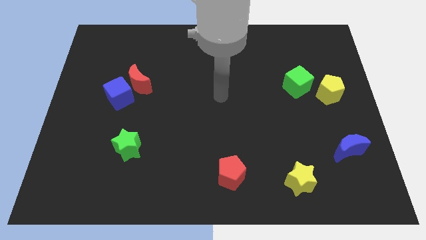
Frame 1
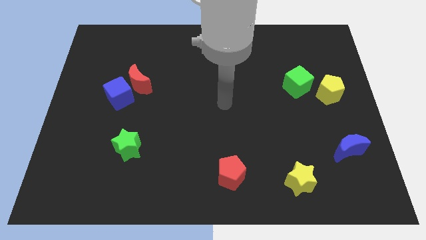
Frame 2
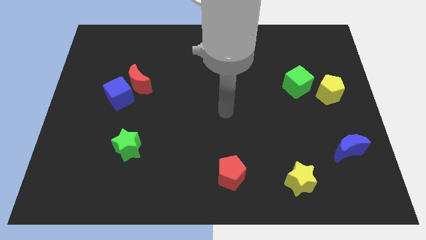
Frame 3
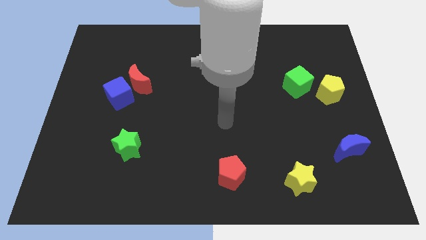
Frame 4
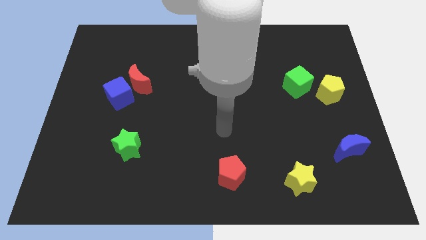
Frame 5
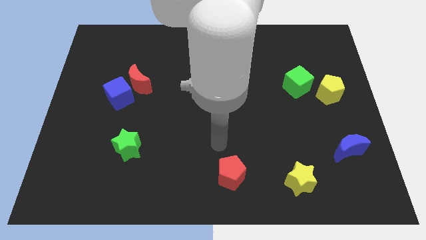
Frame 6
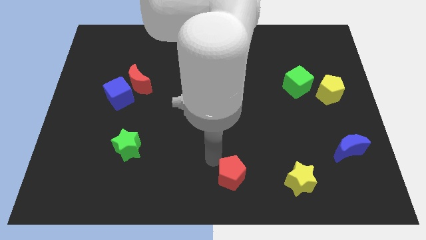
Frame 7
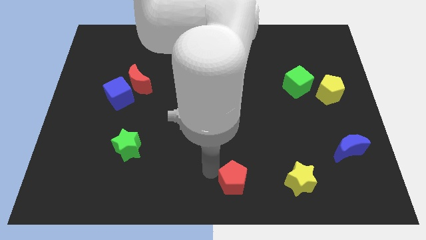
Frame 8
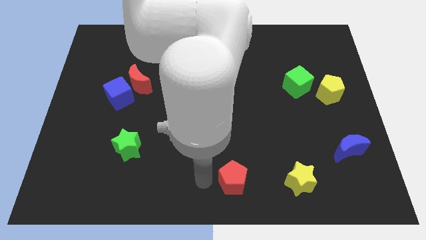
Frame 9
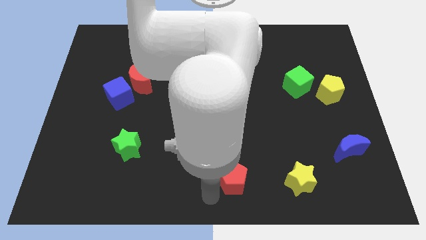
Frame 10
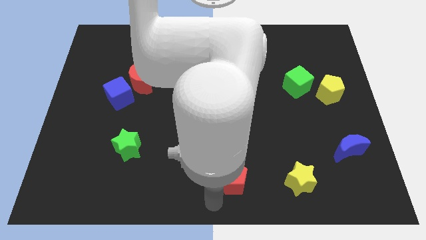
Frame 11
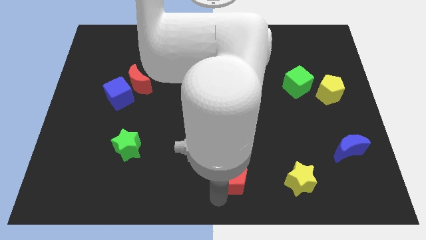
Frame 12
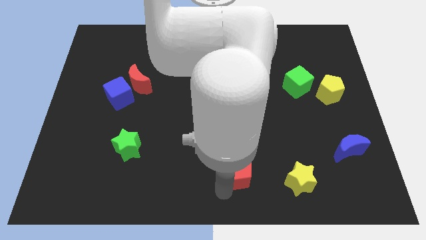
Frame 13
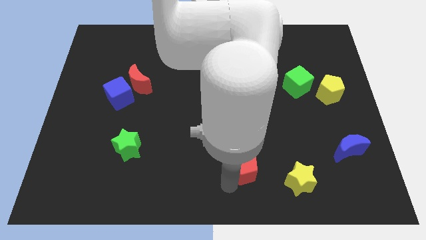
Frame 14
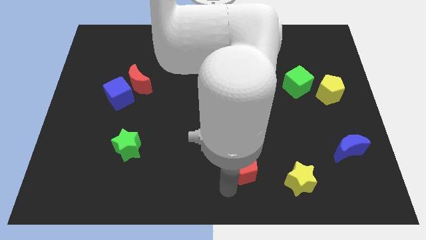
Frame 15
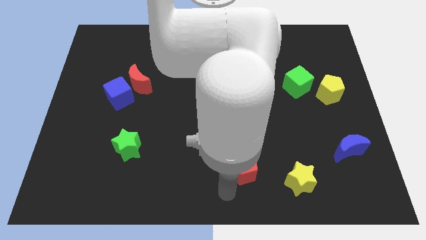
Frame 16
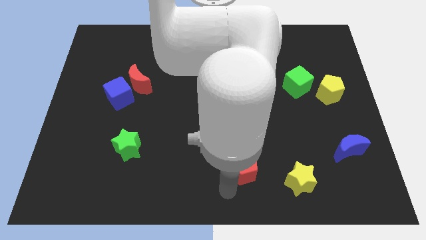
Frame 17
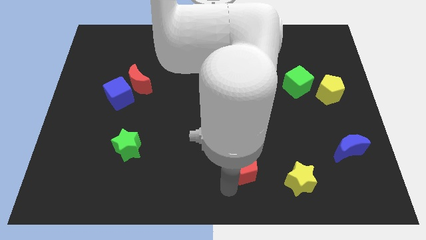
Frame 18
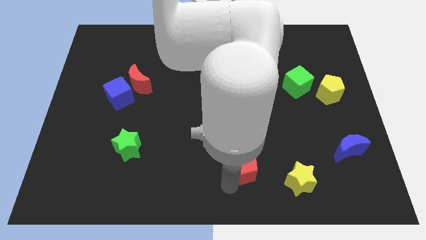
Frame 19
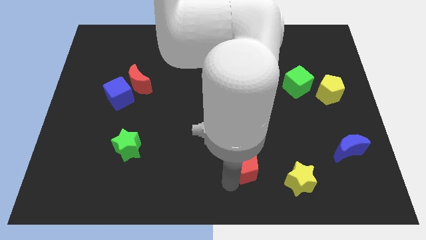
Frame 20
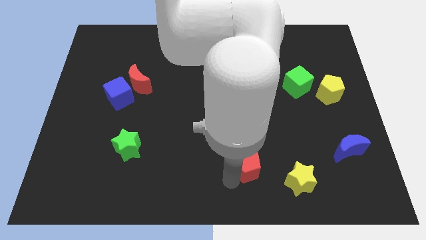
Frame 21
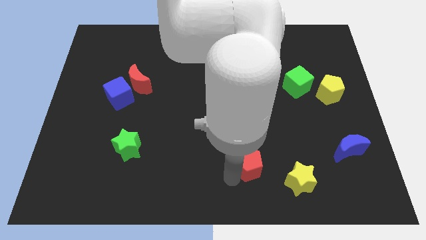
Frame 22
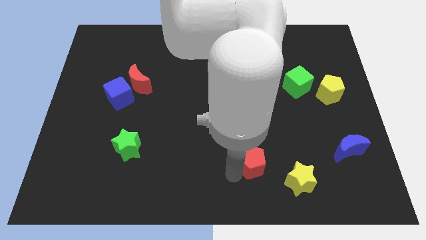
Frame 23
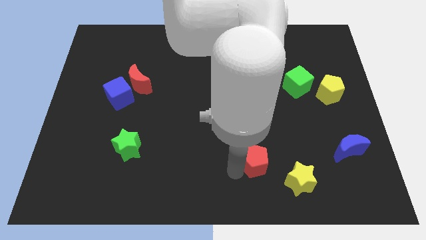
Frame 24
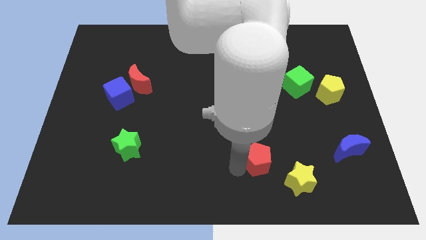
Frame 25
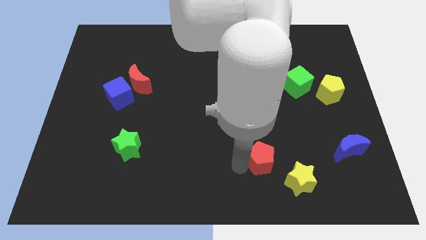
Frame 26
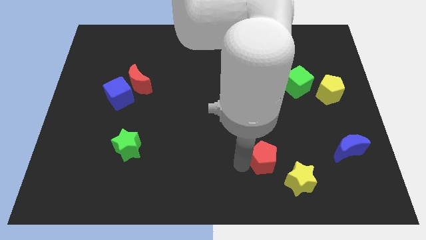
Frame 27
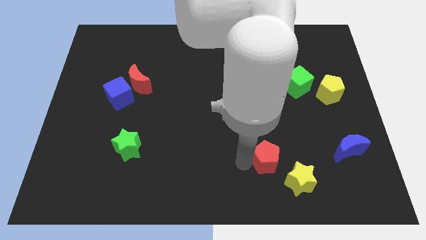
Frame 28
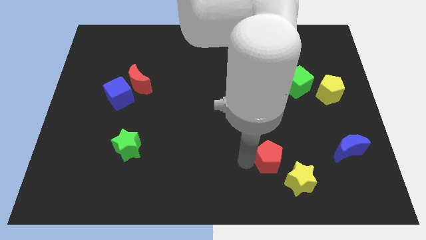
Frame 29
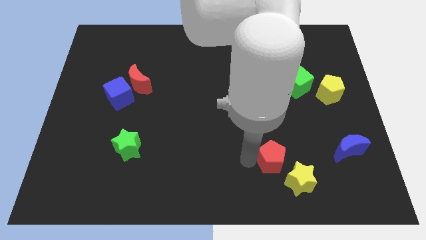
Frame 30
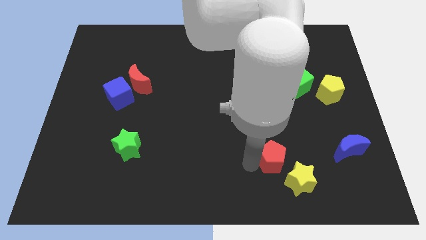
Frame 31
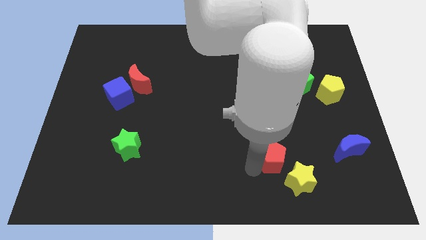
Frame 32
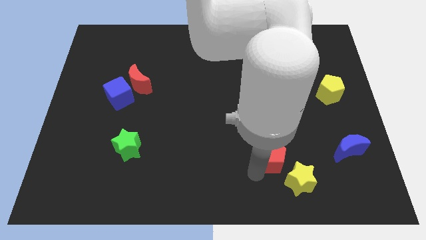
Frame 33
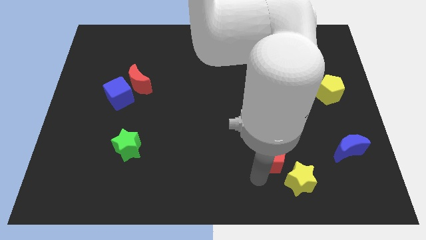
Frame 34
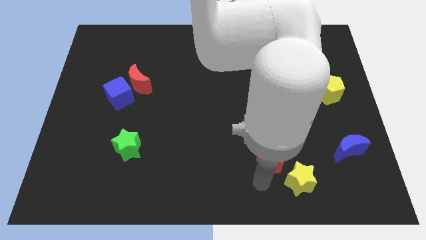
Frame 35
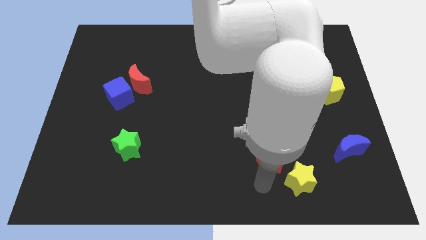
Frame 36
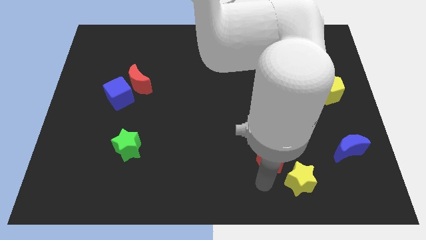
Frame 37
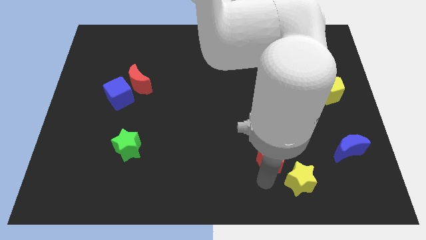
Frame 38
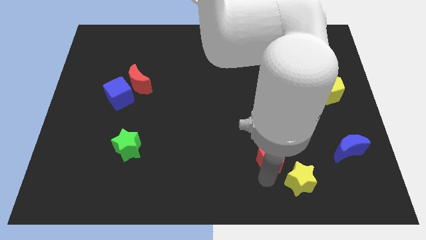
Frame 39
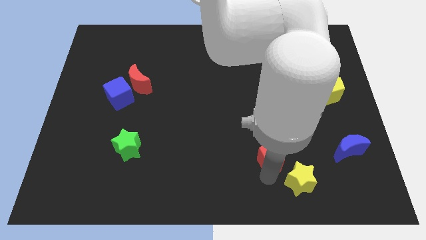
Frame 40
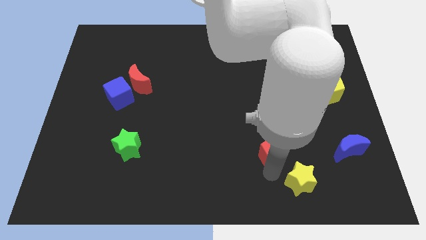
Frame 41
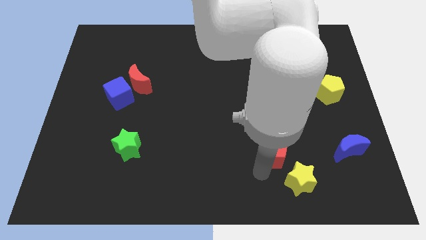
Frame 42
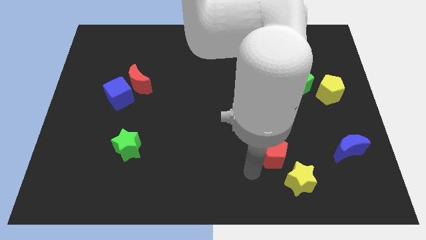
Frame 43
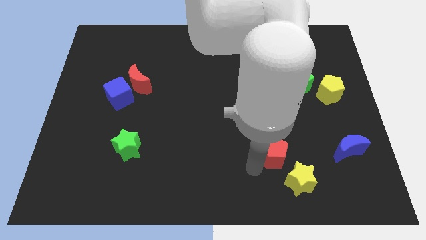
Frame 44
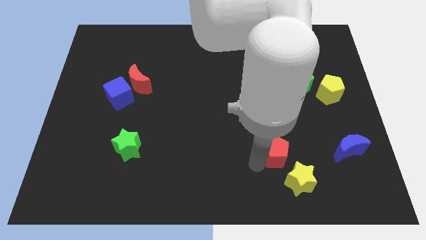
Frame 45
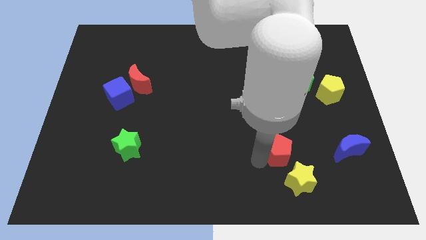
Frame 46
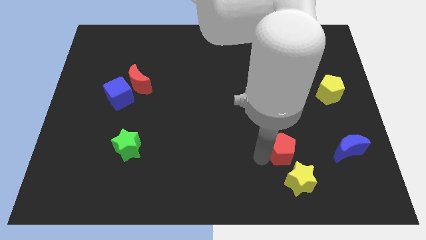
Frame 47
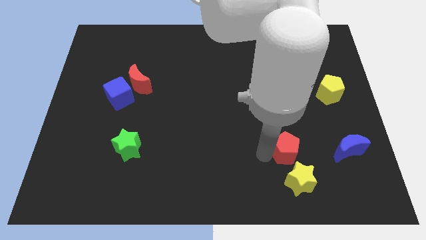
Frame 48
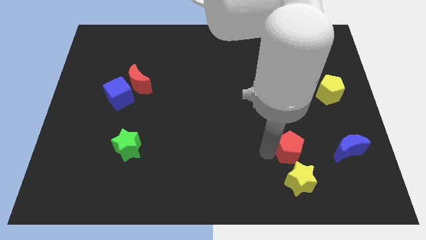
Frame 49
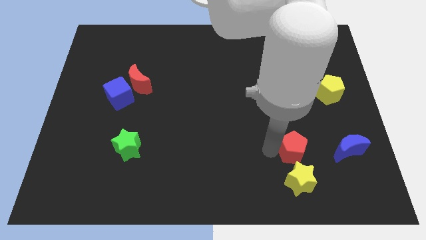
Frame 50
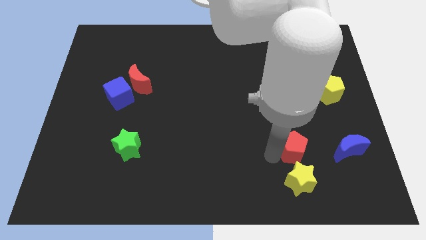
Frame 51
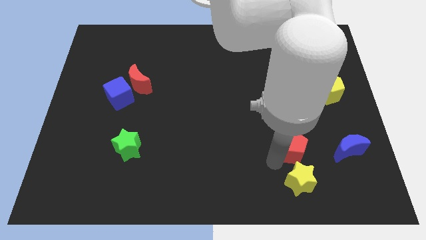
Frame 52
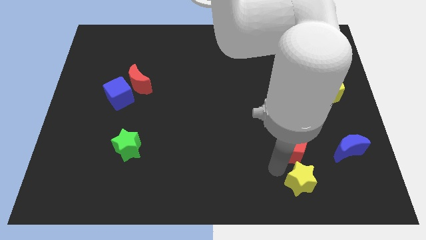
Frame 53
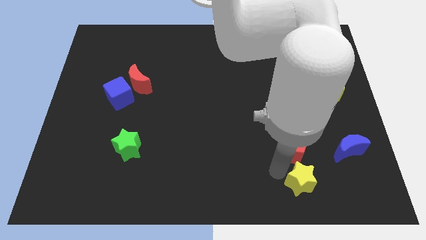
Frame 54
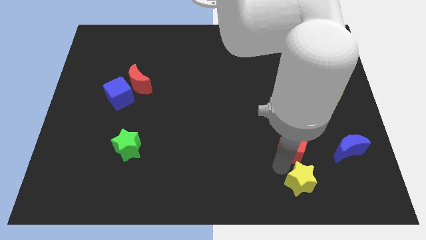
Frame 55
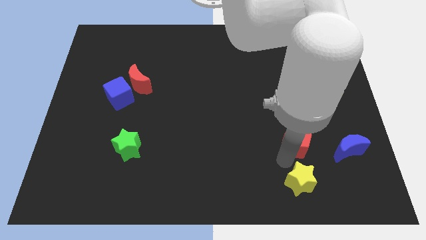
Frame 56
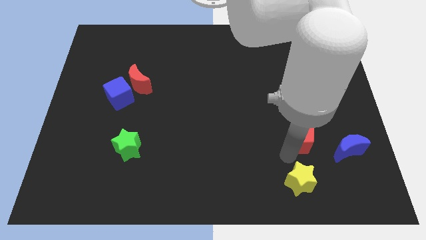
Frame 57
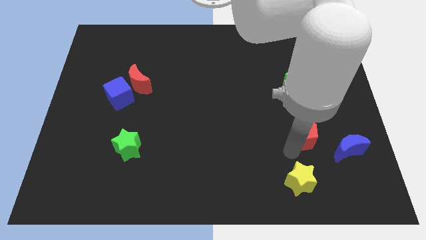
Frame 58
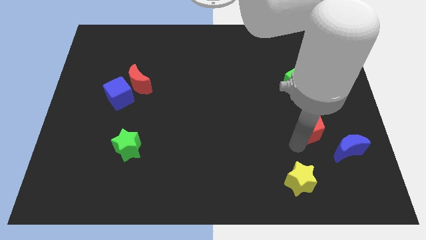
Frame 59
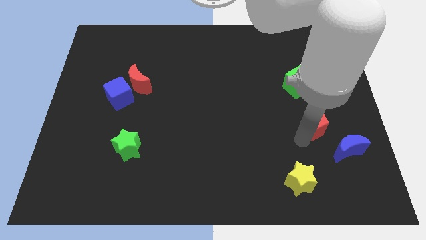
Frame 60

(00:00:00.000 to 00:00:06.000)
push the red pentagon diagonally down and to the left of the yellow pentagon

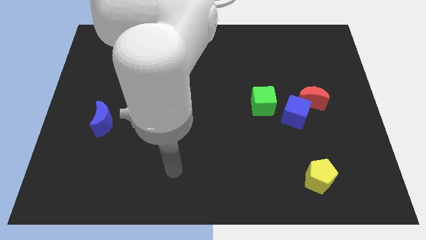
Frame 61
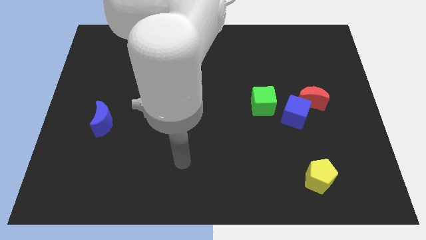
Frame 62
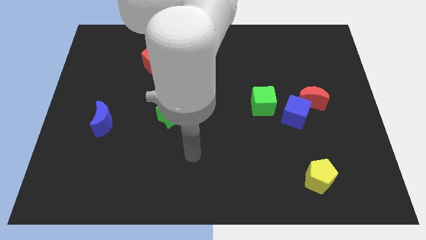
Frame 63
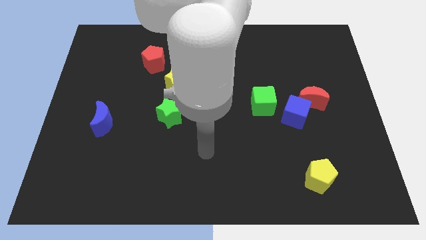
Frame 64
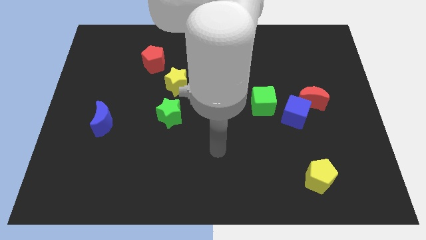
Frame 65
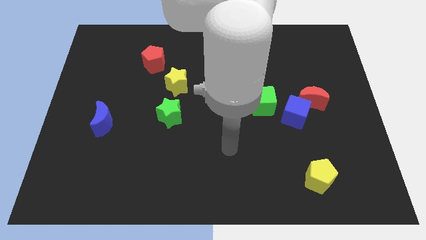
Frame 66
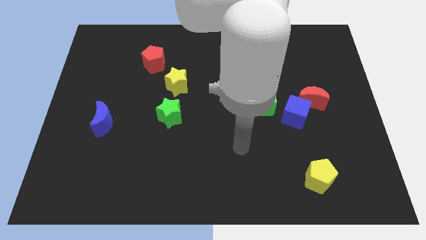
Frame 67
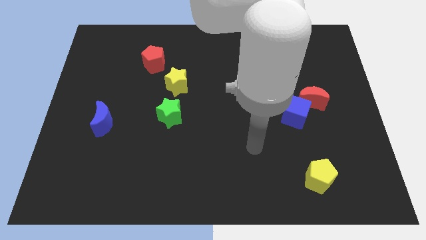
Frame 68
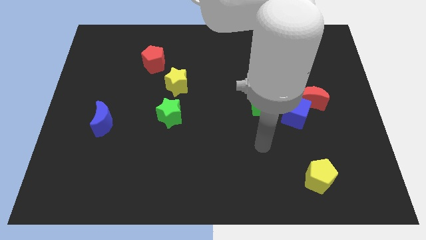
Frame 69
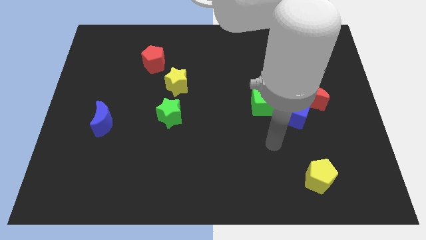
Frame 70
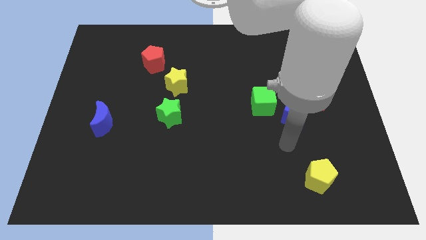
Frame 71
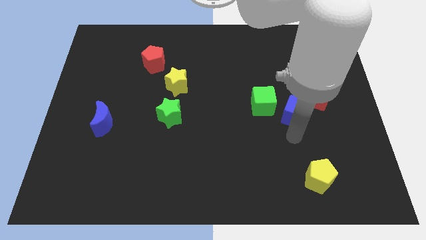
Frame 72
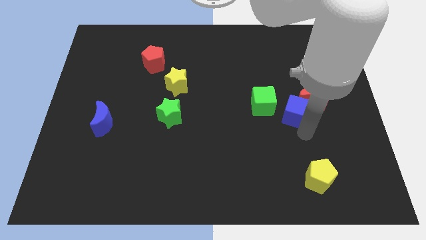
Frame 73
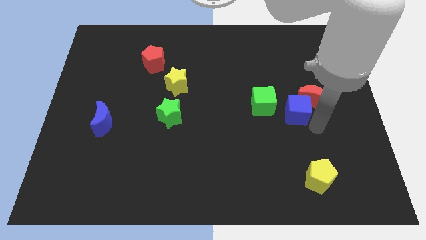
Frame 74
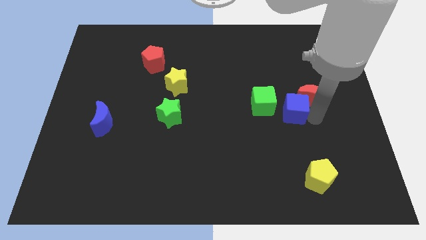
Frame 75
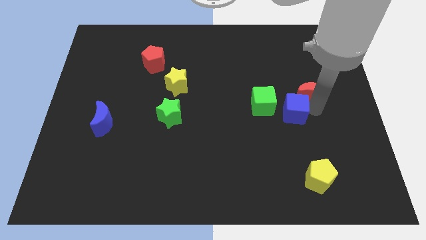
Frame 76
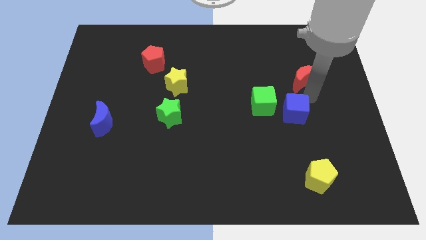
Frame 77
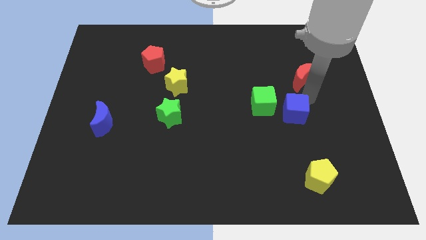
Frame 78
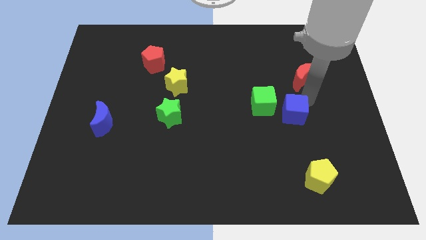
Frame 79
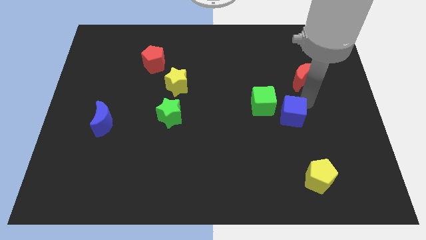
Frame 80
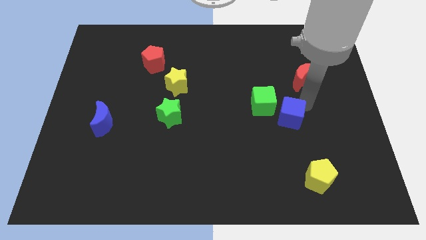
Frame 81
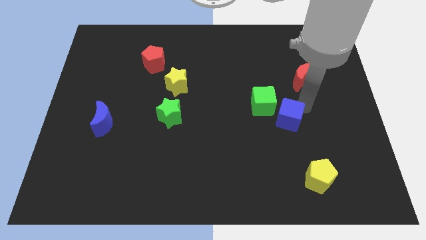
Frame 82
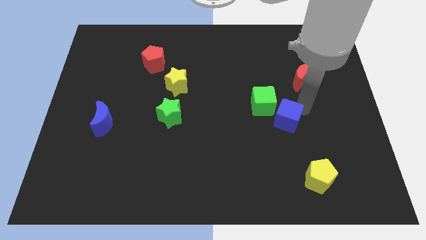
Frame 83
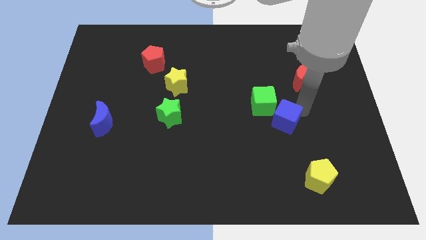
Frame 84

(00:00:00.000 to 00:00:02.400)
slide the blue cube to the bottom of the green cube
